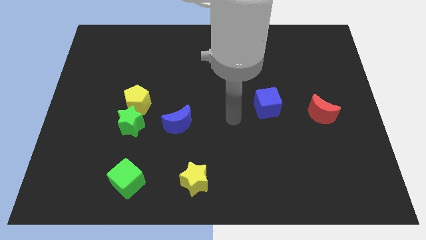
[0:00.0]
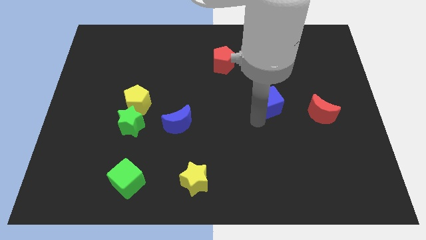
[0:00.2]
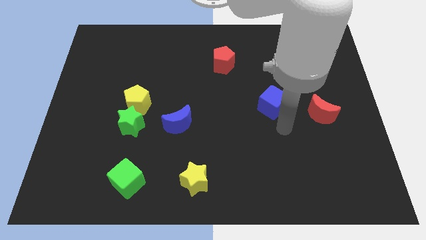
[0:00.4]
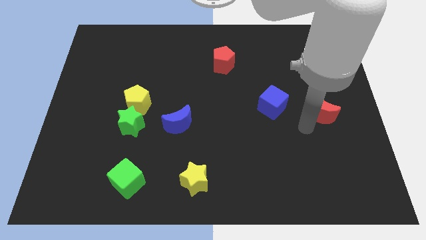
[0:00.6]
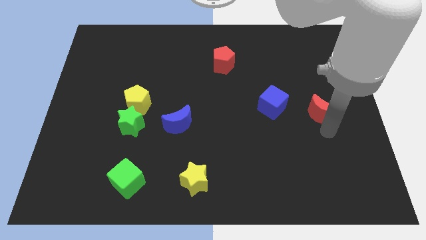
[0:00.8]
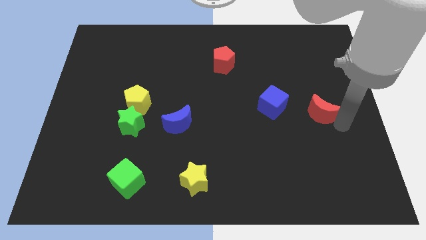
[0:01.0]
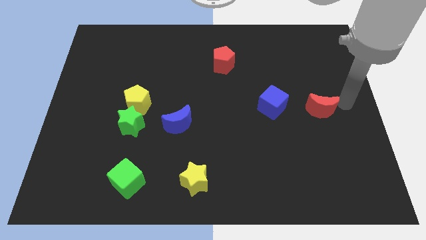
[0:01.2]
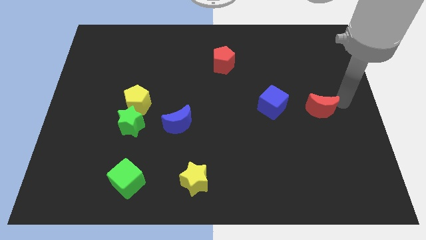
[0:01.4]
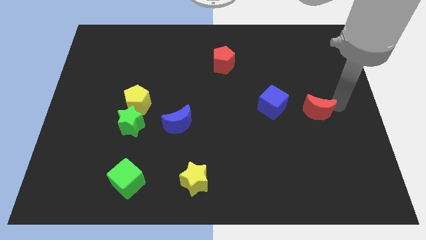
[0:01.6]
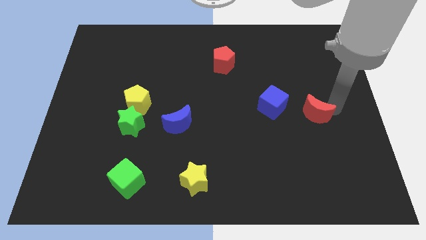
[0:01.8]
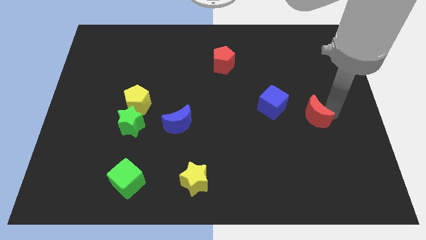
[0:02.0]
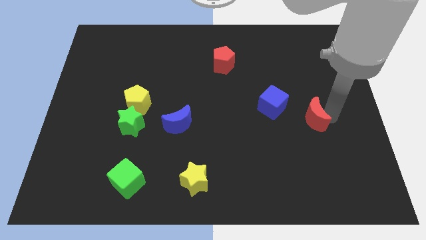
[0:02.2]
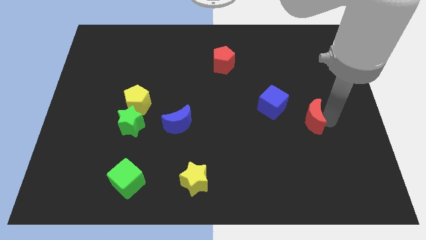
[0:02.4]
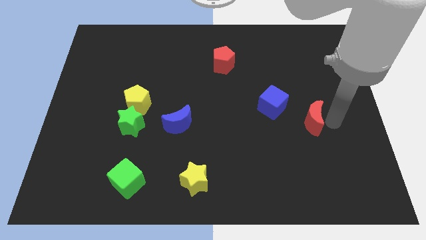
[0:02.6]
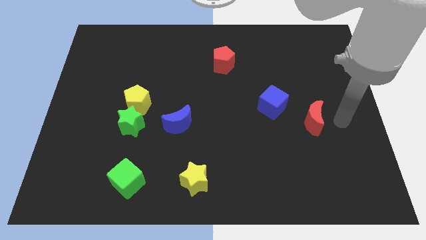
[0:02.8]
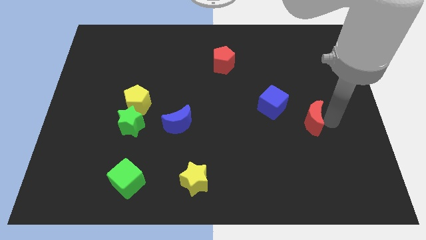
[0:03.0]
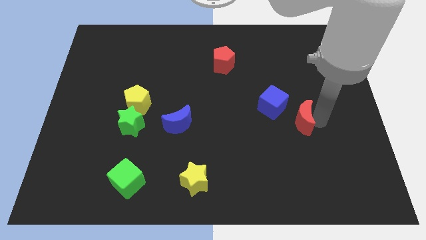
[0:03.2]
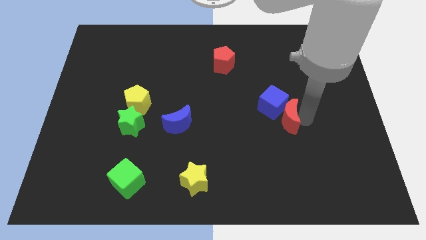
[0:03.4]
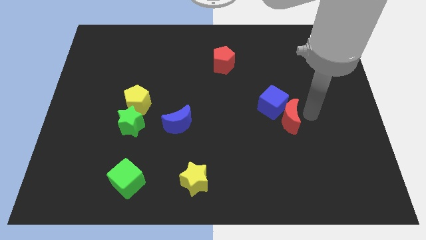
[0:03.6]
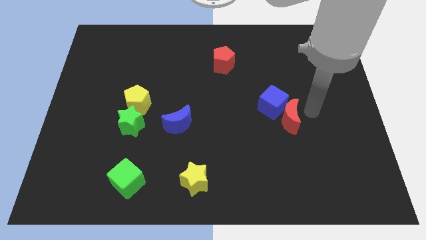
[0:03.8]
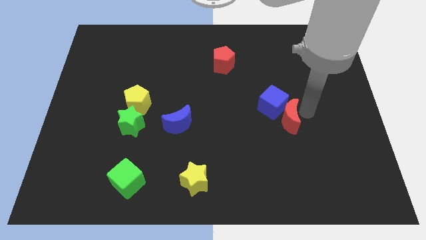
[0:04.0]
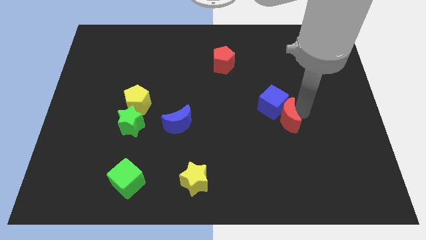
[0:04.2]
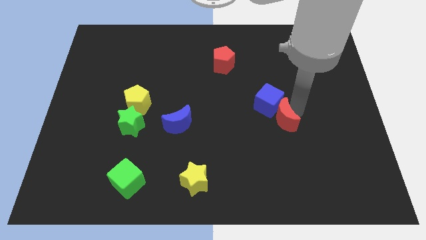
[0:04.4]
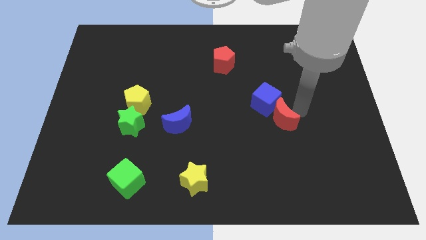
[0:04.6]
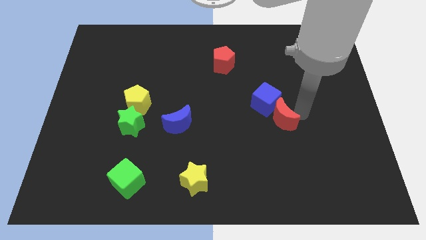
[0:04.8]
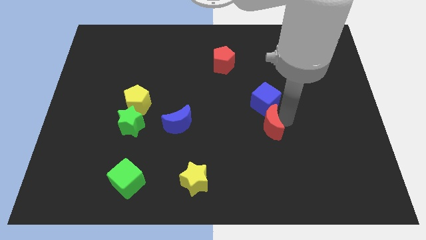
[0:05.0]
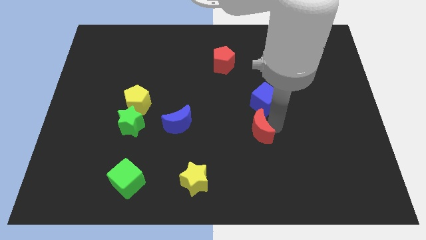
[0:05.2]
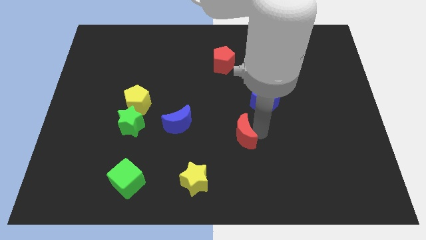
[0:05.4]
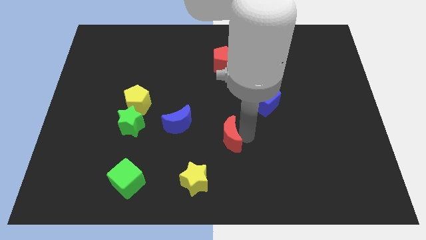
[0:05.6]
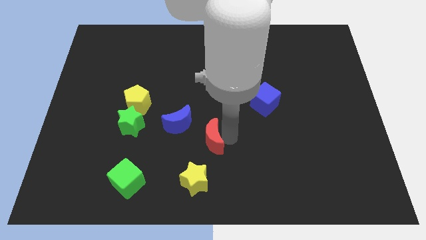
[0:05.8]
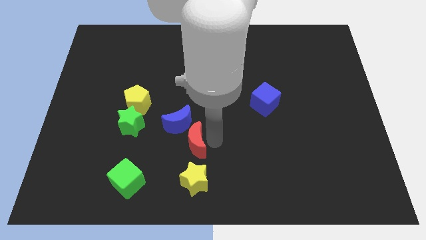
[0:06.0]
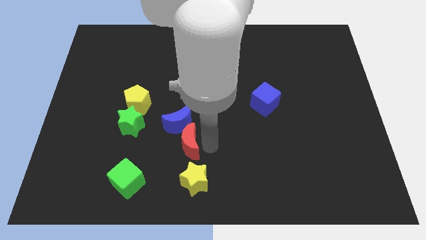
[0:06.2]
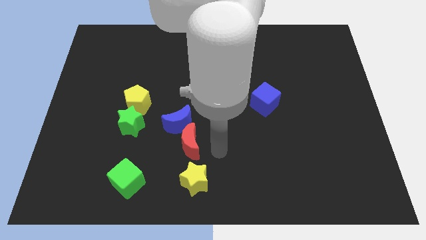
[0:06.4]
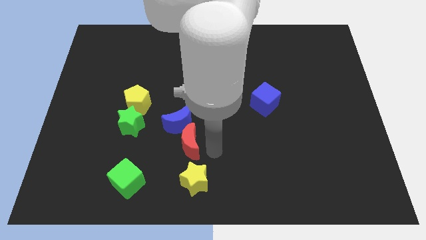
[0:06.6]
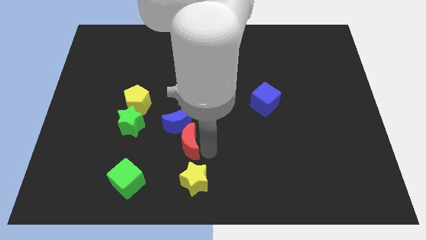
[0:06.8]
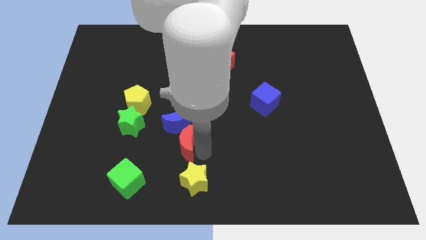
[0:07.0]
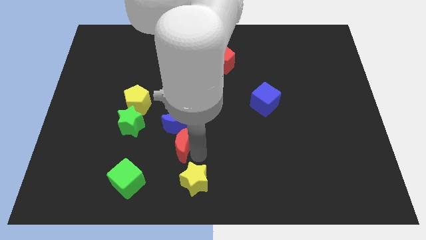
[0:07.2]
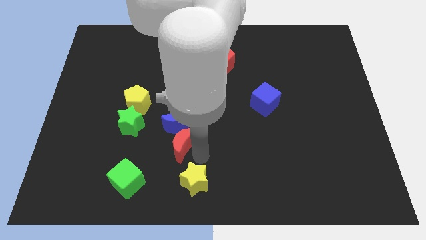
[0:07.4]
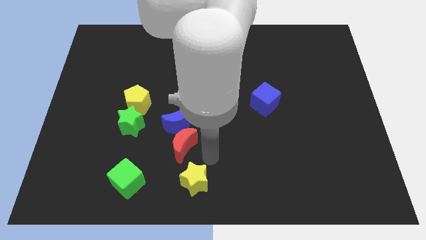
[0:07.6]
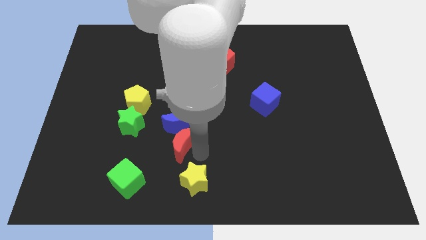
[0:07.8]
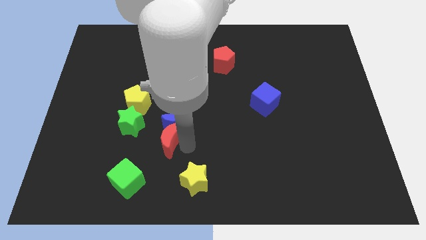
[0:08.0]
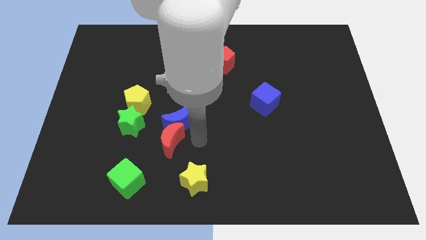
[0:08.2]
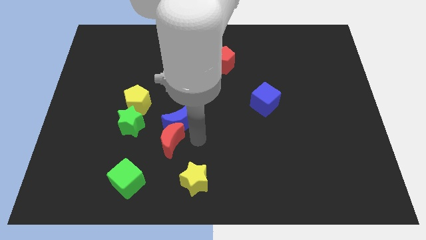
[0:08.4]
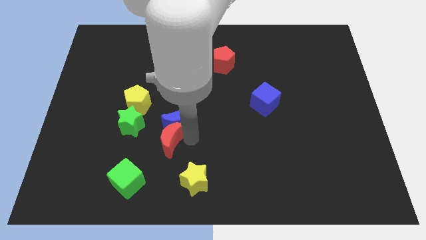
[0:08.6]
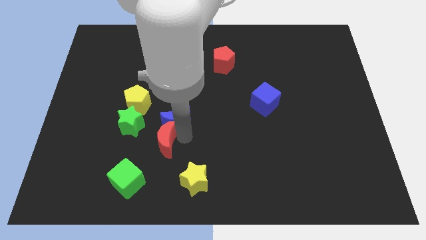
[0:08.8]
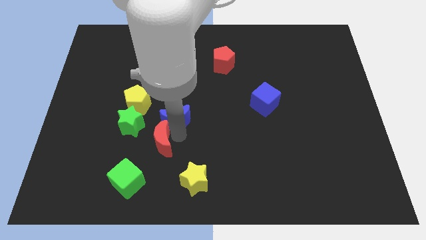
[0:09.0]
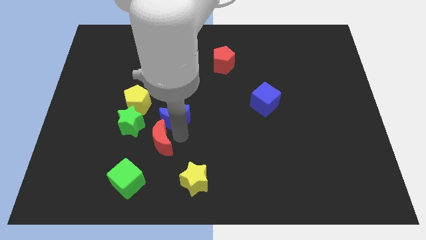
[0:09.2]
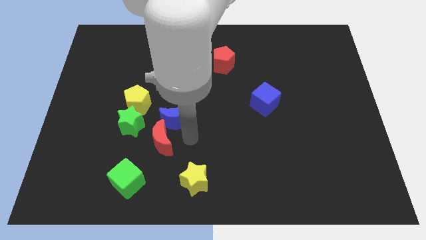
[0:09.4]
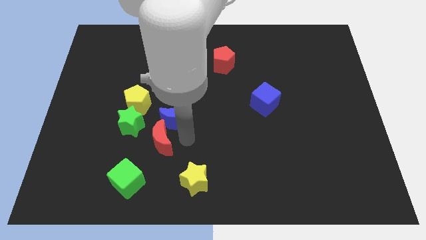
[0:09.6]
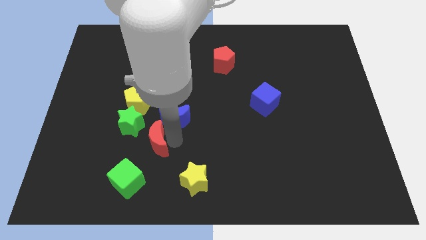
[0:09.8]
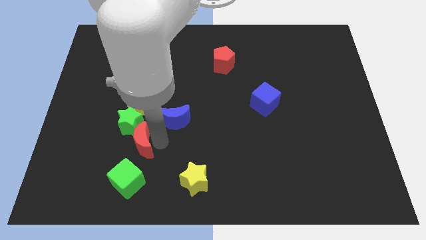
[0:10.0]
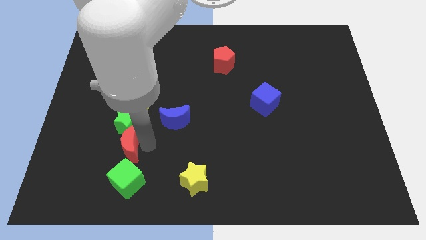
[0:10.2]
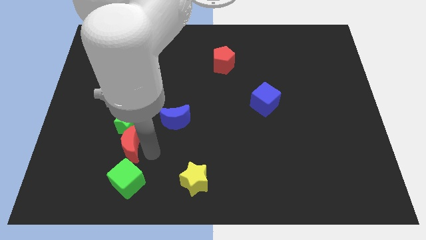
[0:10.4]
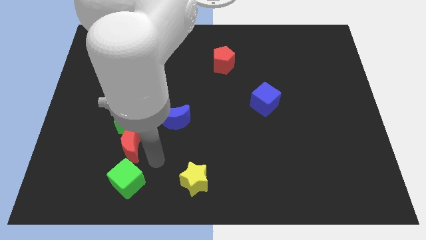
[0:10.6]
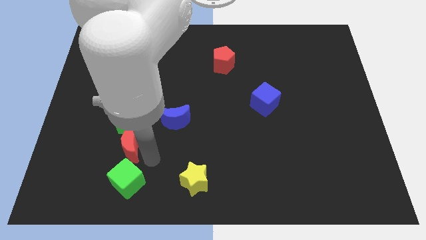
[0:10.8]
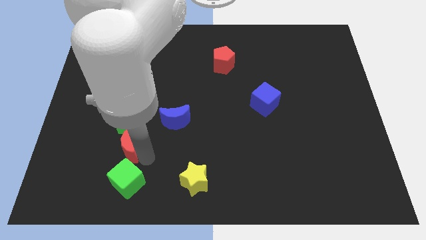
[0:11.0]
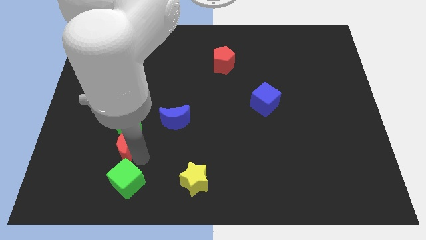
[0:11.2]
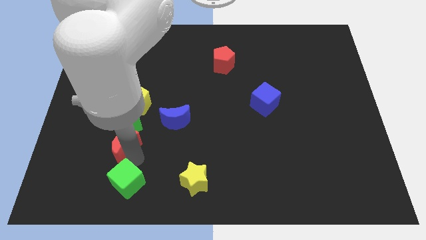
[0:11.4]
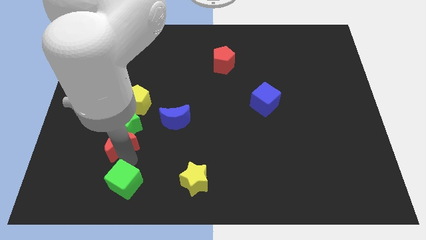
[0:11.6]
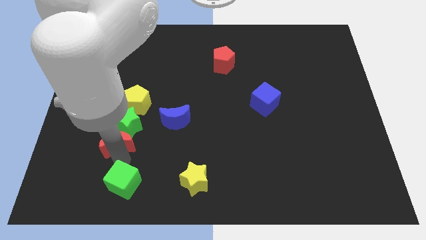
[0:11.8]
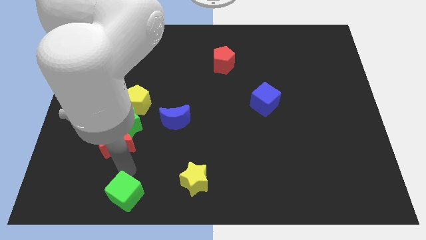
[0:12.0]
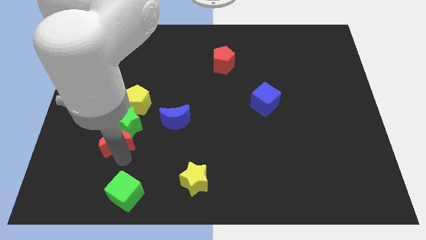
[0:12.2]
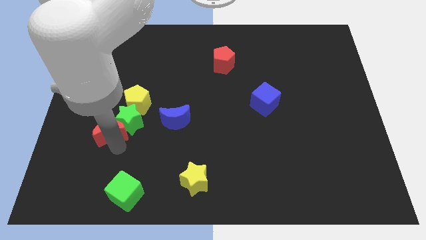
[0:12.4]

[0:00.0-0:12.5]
put the red moon to the left side of the blue moon

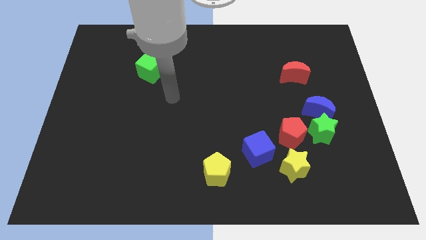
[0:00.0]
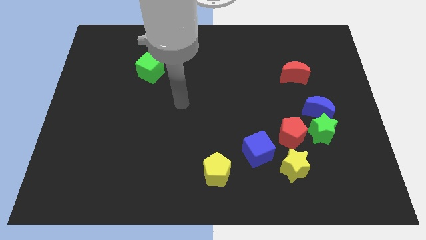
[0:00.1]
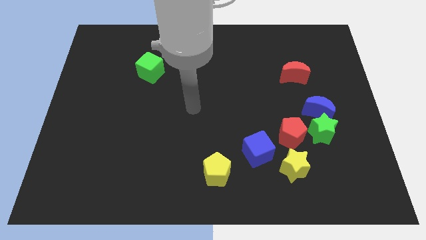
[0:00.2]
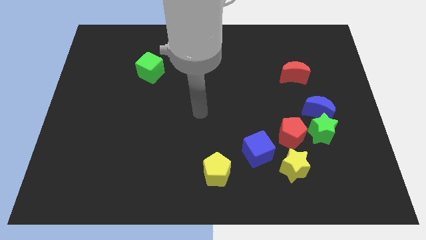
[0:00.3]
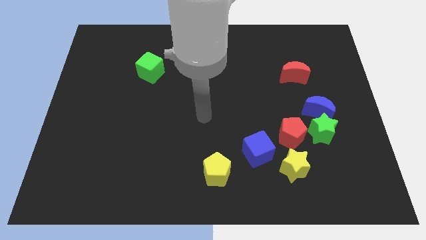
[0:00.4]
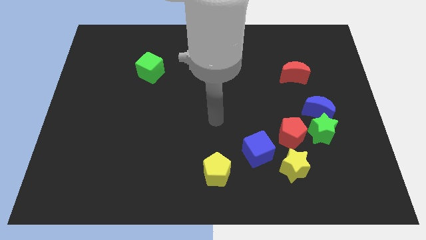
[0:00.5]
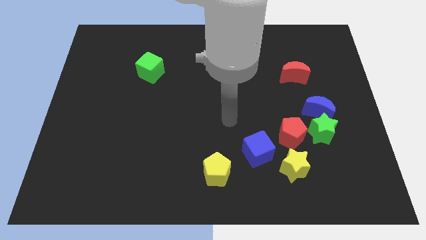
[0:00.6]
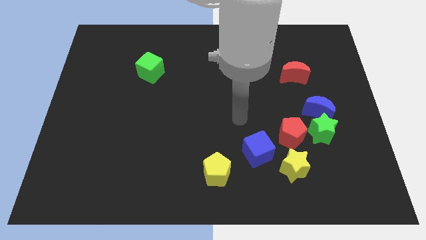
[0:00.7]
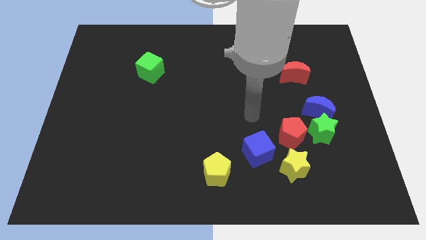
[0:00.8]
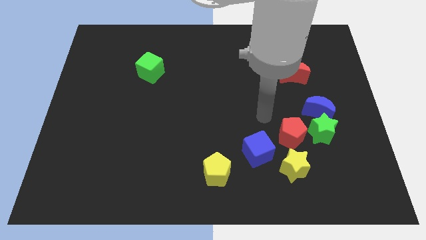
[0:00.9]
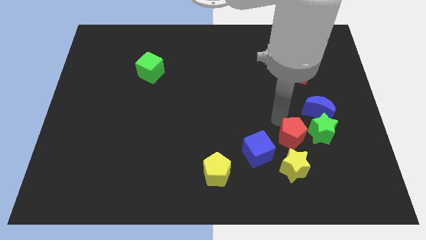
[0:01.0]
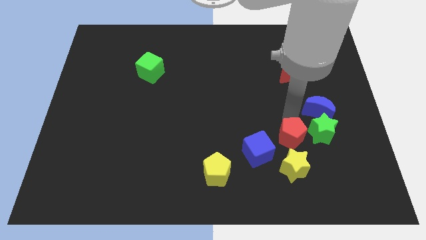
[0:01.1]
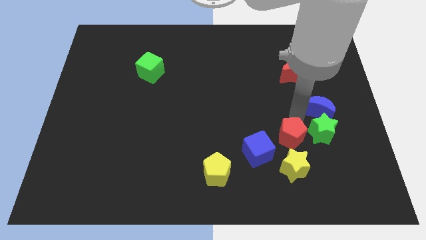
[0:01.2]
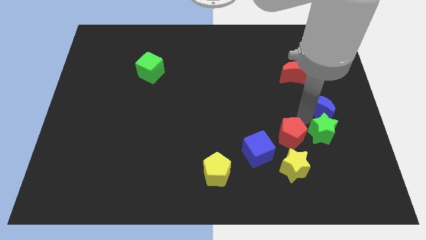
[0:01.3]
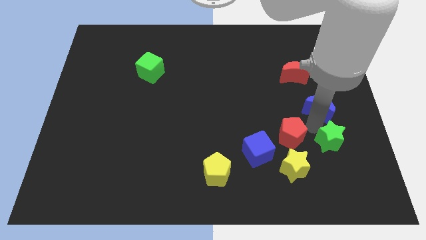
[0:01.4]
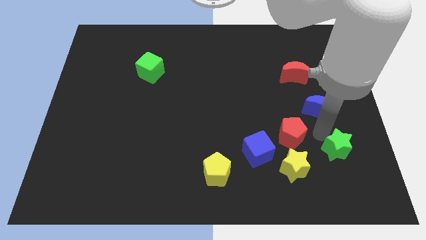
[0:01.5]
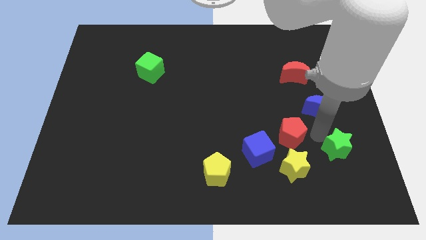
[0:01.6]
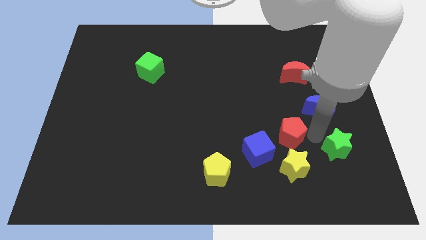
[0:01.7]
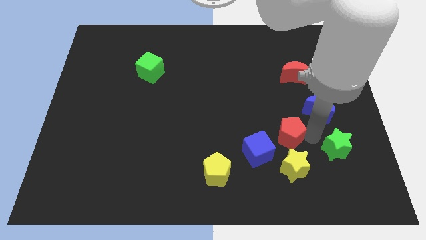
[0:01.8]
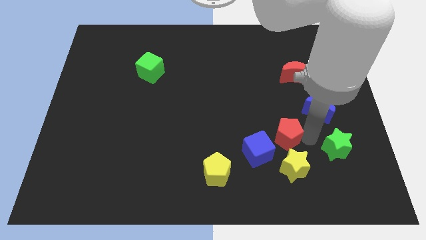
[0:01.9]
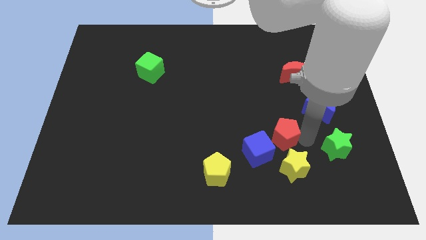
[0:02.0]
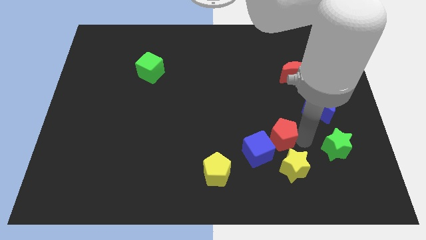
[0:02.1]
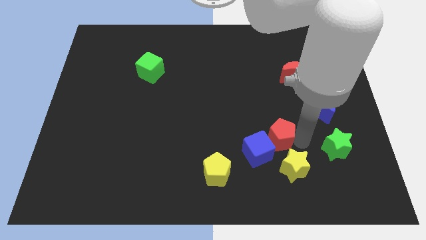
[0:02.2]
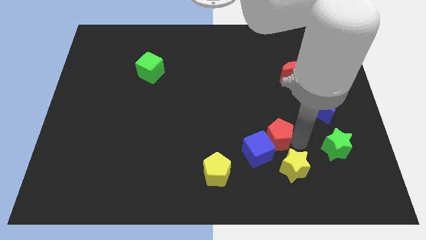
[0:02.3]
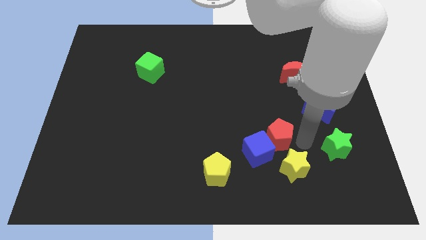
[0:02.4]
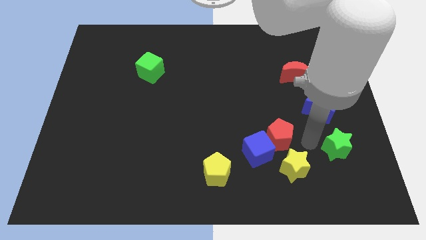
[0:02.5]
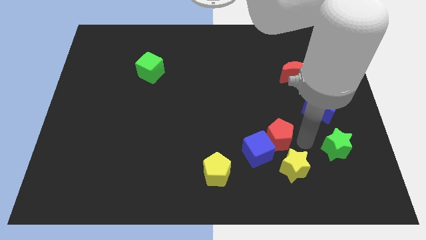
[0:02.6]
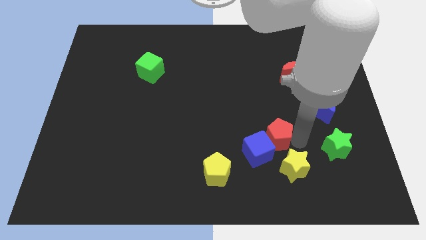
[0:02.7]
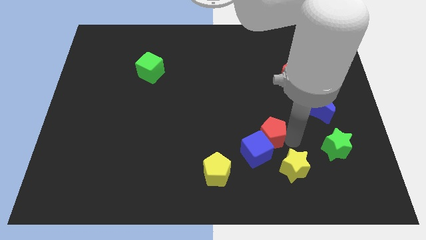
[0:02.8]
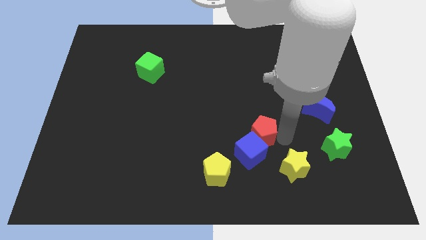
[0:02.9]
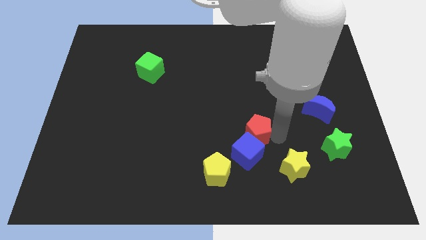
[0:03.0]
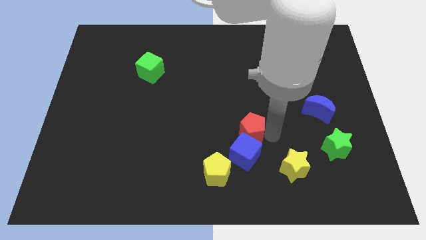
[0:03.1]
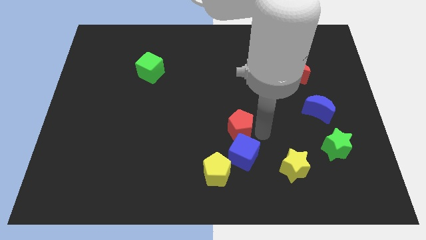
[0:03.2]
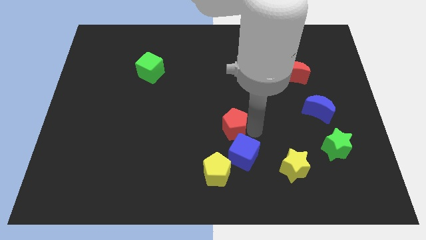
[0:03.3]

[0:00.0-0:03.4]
push the red pentagon to the top of the yellow pentagon
